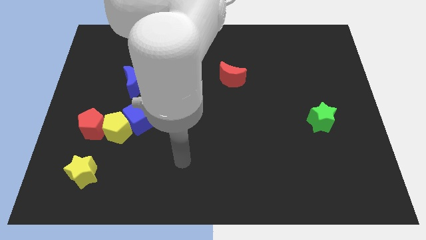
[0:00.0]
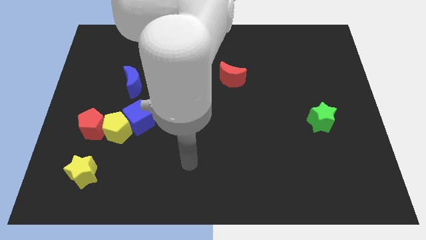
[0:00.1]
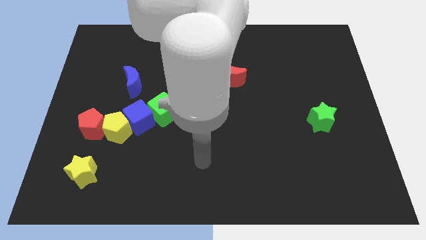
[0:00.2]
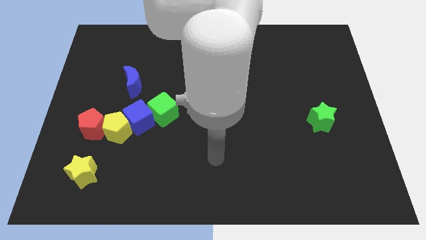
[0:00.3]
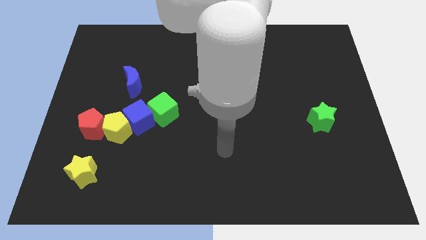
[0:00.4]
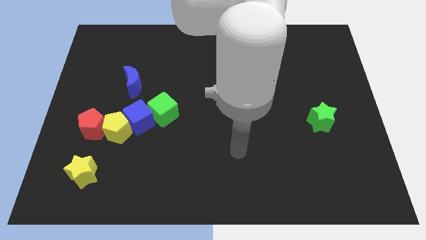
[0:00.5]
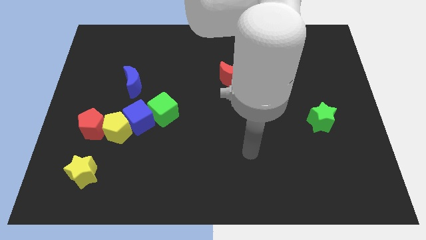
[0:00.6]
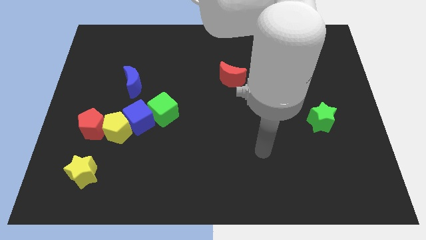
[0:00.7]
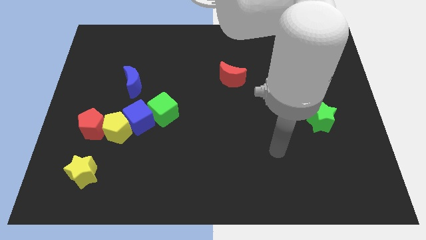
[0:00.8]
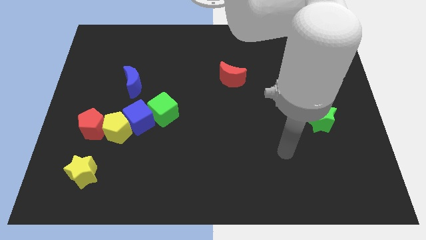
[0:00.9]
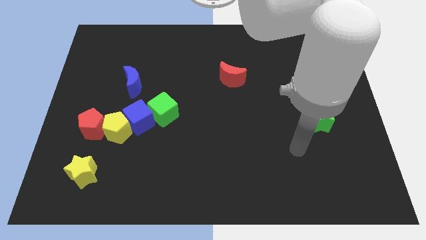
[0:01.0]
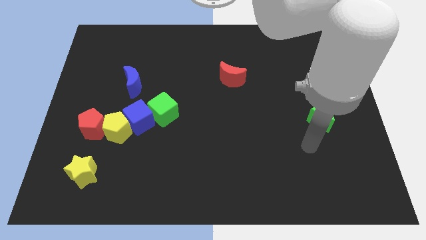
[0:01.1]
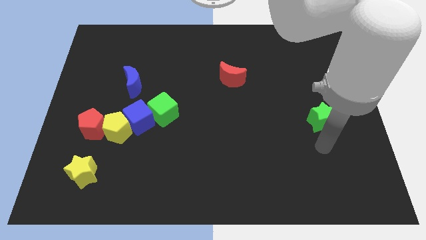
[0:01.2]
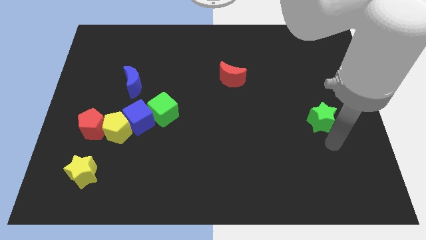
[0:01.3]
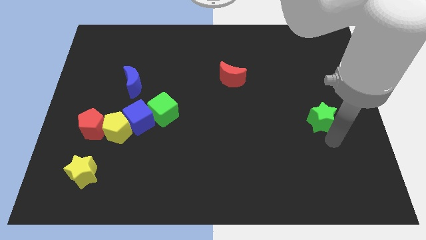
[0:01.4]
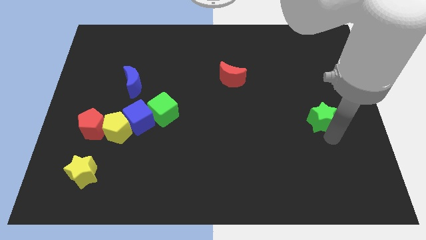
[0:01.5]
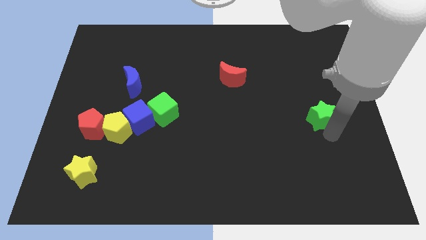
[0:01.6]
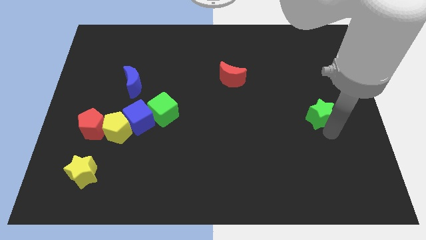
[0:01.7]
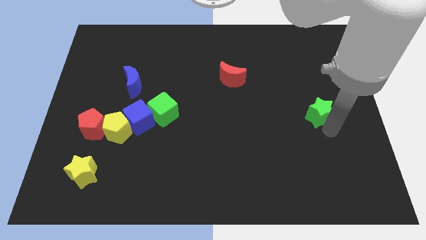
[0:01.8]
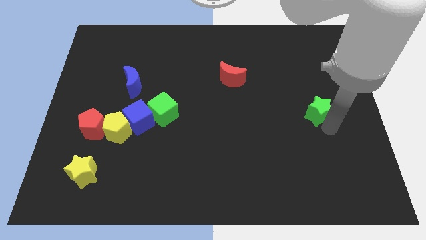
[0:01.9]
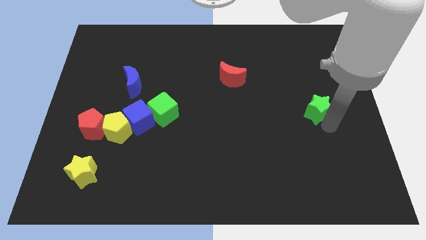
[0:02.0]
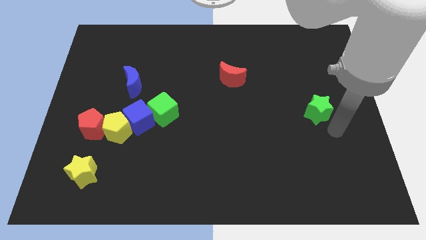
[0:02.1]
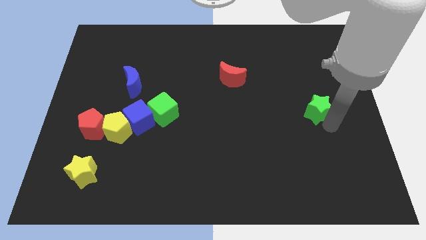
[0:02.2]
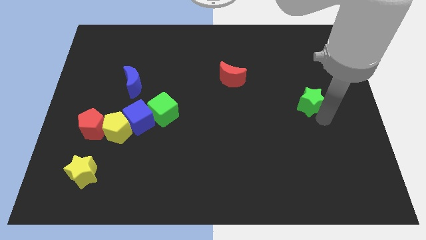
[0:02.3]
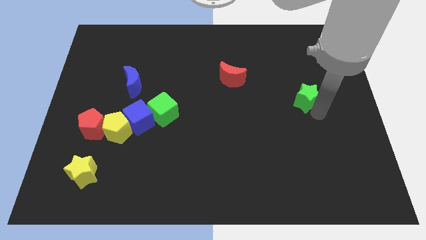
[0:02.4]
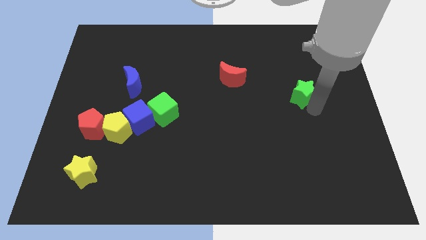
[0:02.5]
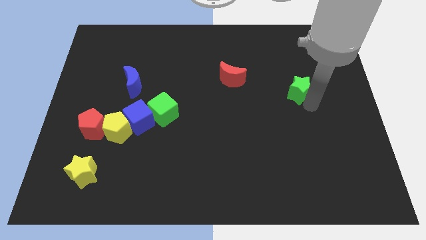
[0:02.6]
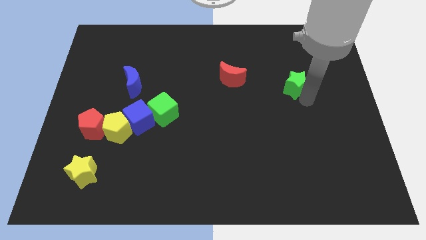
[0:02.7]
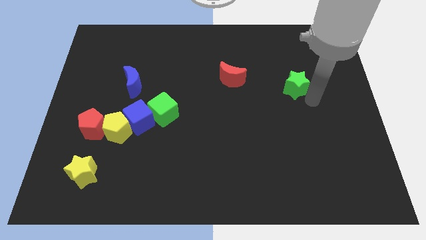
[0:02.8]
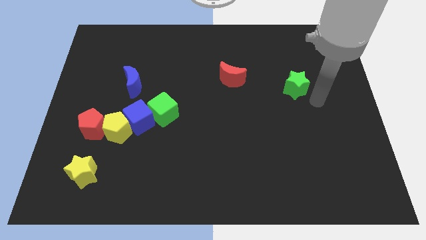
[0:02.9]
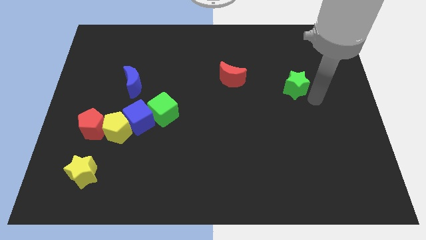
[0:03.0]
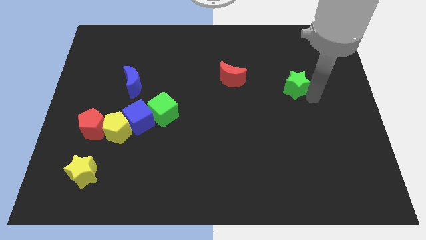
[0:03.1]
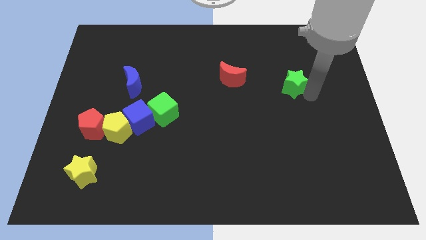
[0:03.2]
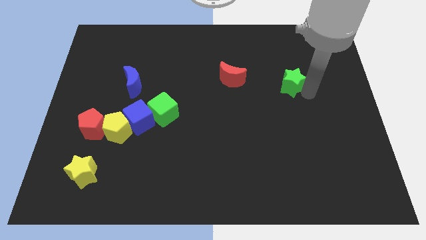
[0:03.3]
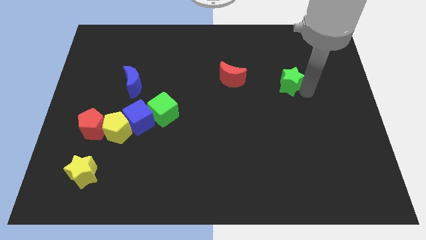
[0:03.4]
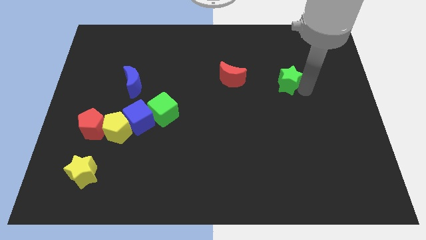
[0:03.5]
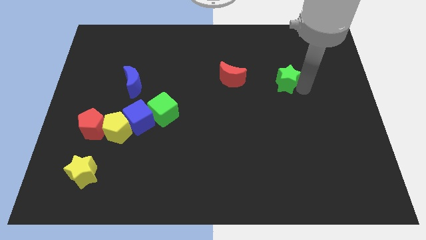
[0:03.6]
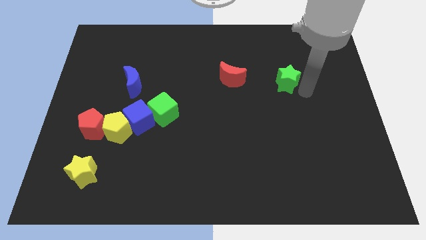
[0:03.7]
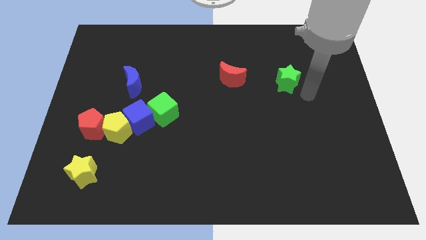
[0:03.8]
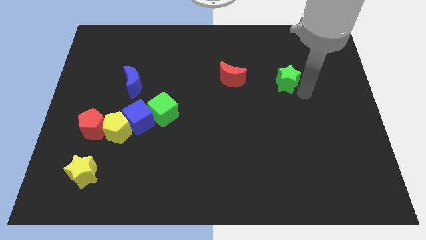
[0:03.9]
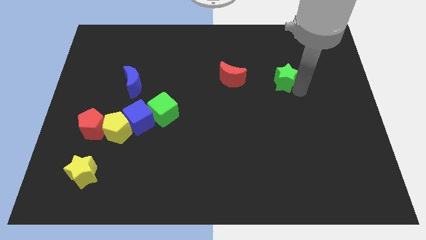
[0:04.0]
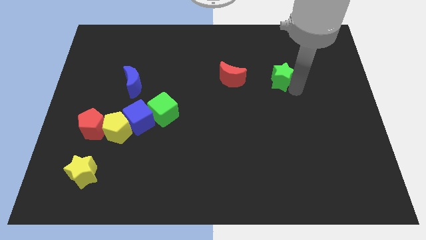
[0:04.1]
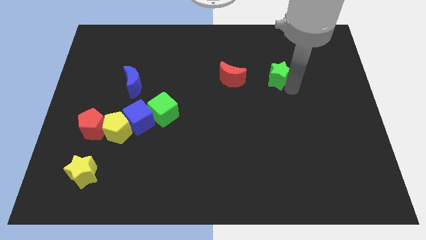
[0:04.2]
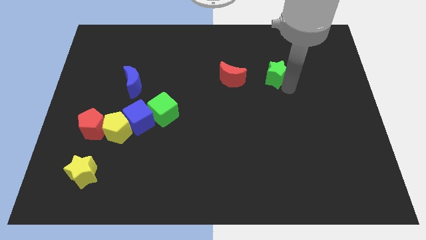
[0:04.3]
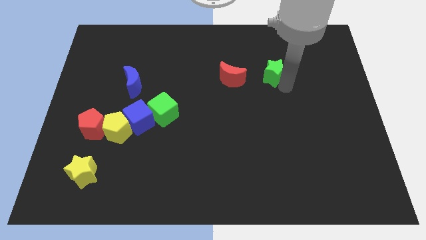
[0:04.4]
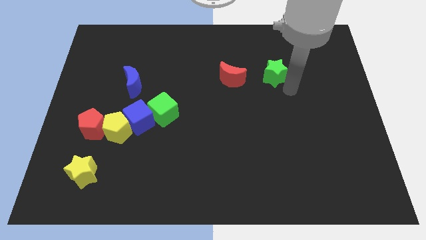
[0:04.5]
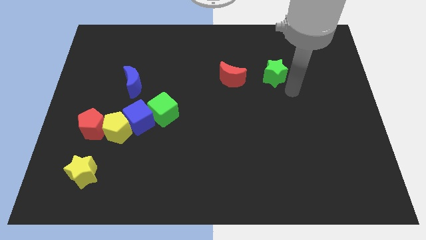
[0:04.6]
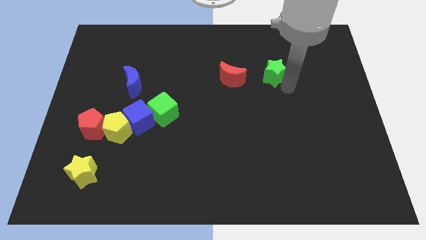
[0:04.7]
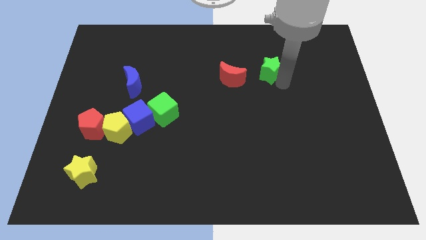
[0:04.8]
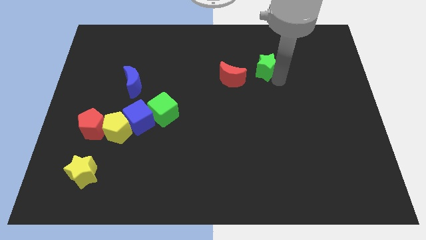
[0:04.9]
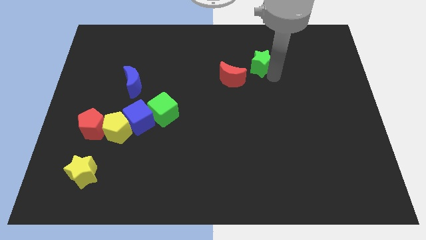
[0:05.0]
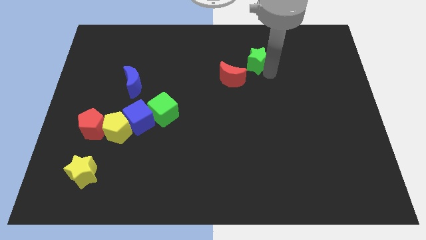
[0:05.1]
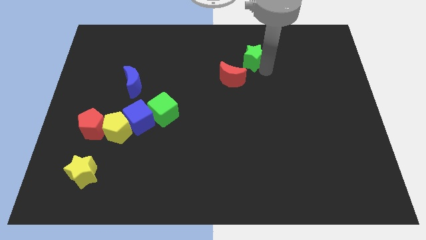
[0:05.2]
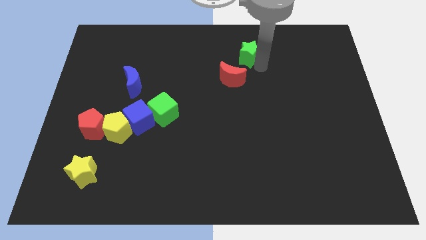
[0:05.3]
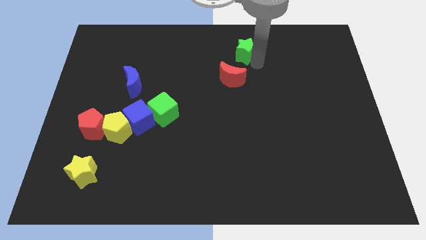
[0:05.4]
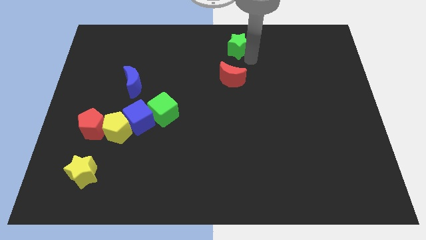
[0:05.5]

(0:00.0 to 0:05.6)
move the green star to the top side
